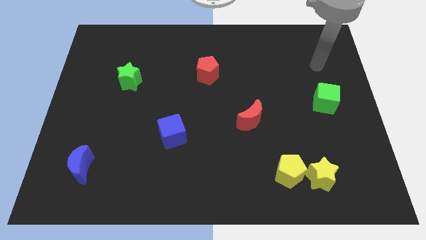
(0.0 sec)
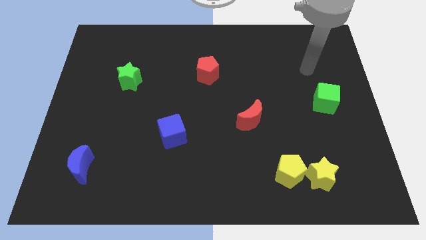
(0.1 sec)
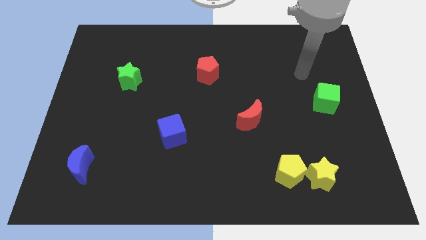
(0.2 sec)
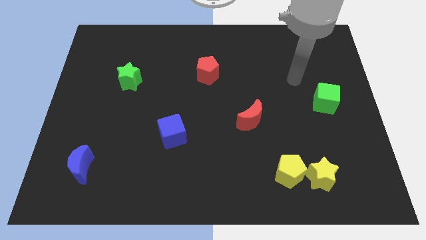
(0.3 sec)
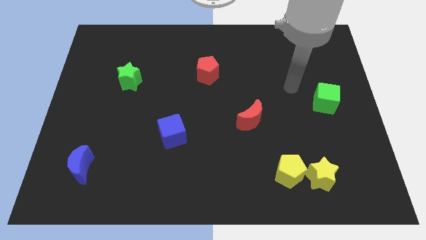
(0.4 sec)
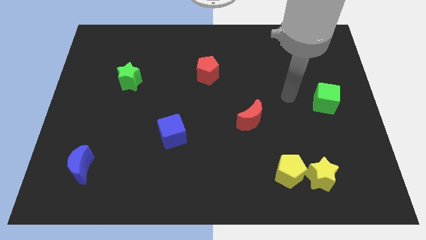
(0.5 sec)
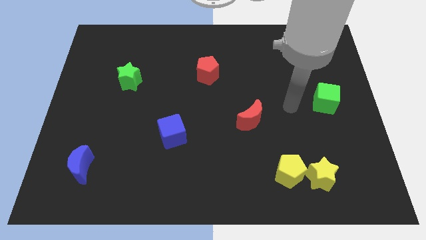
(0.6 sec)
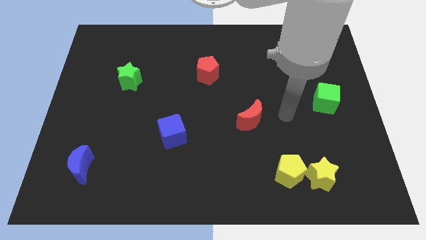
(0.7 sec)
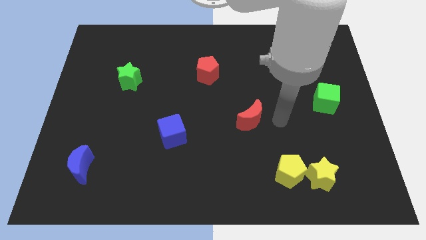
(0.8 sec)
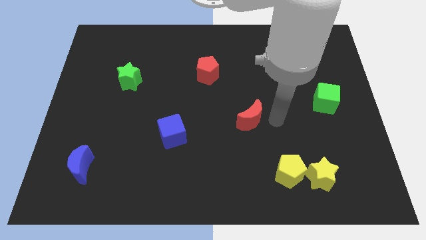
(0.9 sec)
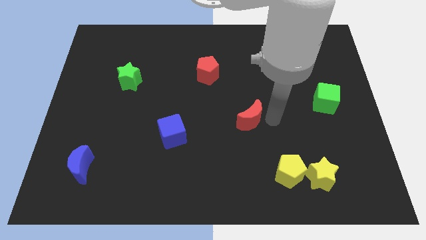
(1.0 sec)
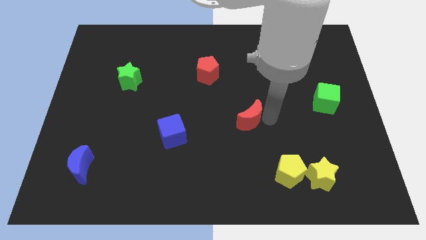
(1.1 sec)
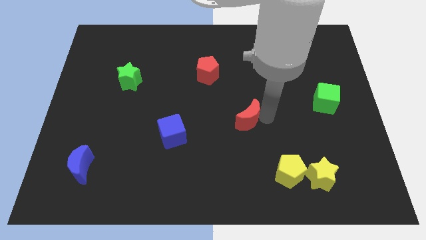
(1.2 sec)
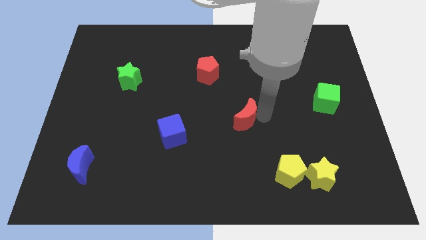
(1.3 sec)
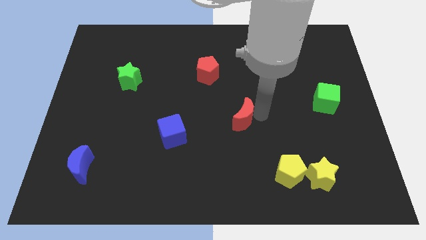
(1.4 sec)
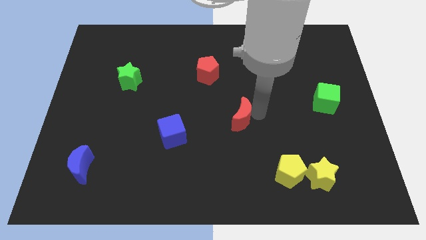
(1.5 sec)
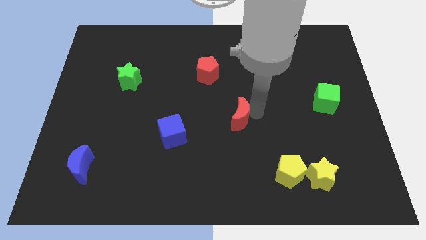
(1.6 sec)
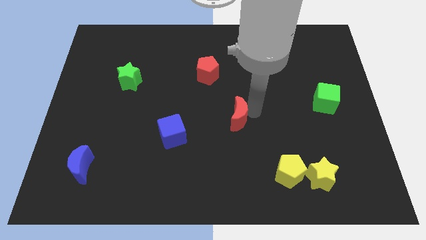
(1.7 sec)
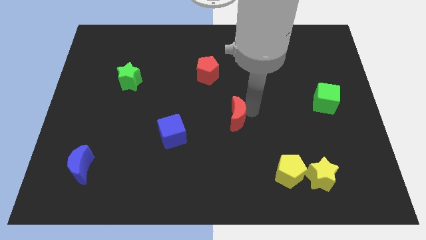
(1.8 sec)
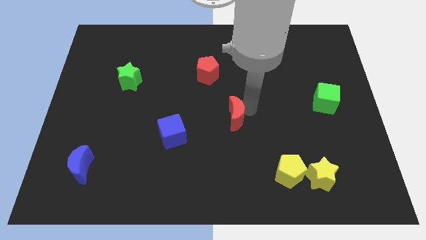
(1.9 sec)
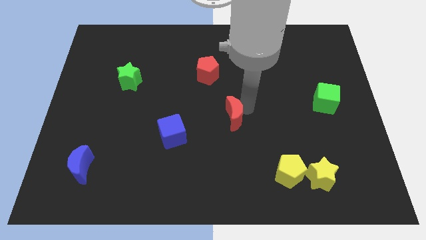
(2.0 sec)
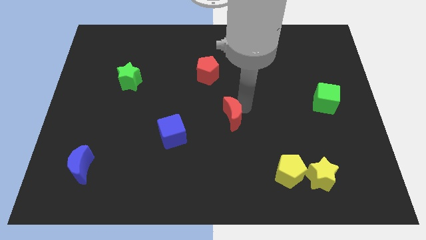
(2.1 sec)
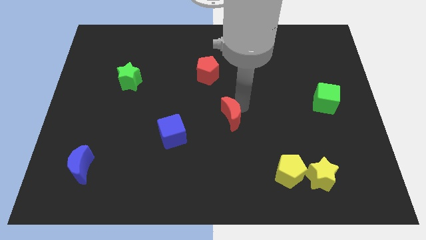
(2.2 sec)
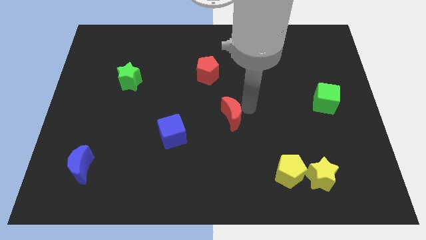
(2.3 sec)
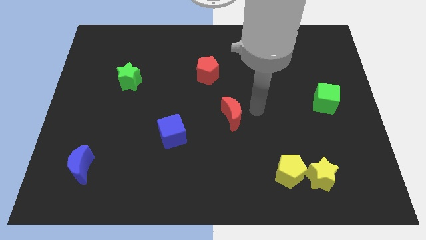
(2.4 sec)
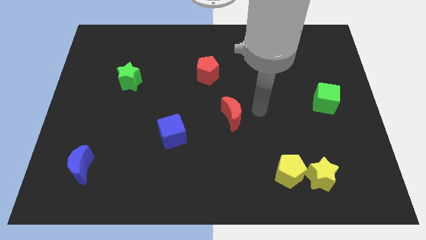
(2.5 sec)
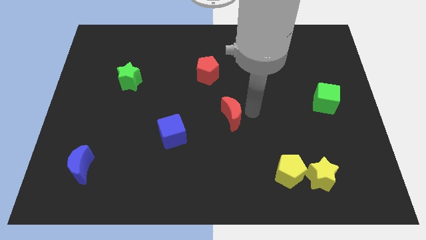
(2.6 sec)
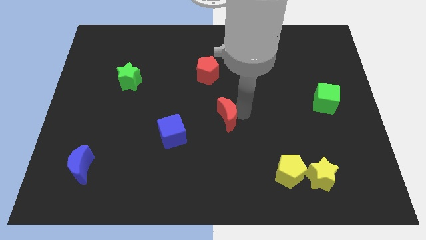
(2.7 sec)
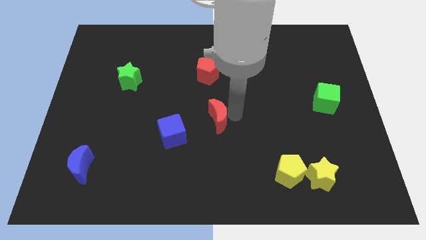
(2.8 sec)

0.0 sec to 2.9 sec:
push the red moon a little left

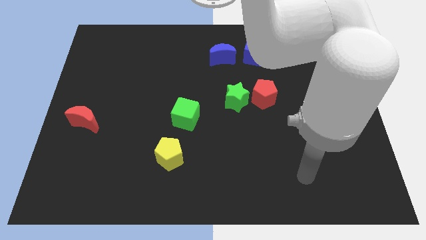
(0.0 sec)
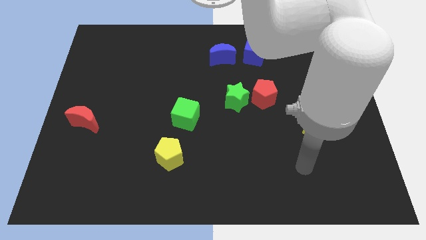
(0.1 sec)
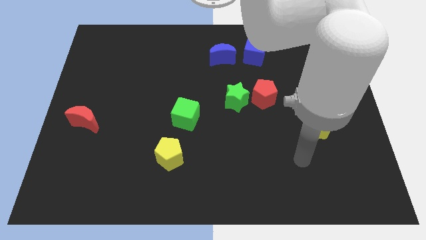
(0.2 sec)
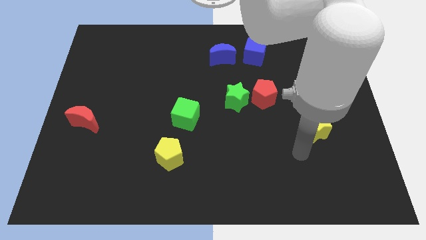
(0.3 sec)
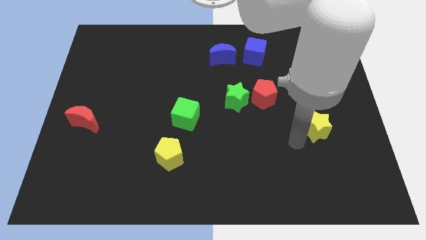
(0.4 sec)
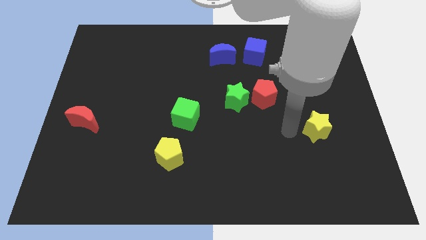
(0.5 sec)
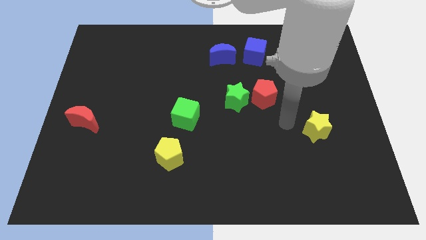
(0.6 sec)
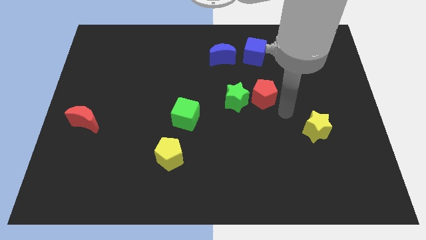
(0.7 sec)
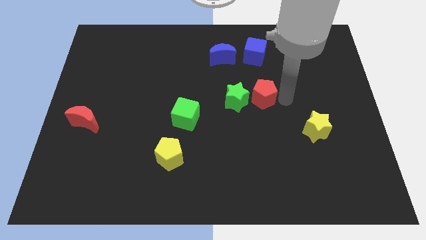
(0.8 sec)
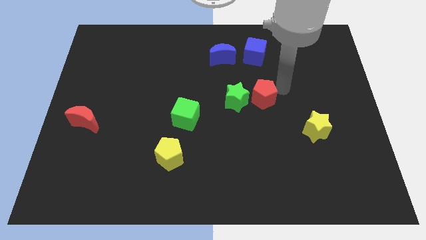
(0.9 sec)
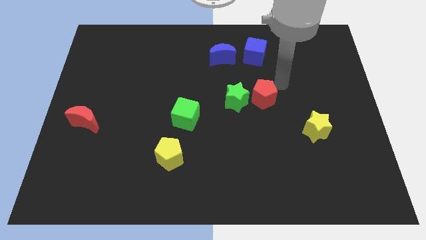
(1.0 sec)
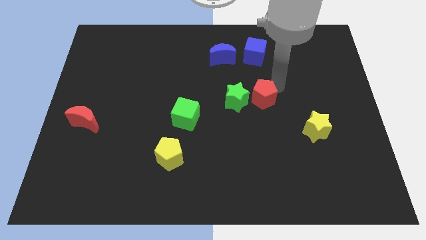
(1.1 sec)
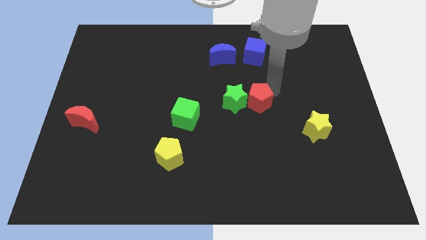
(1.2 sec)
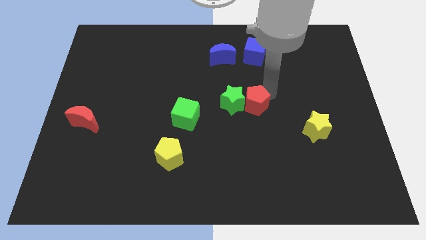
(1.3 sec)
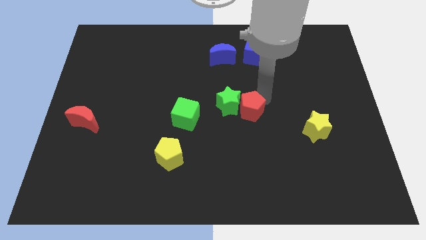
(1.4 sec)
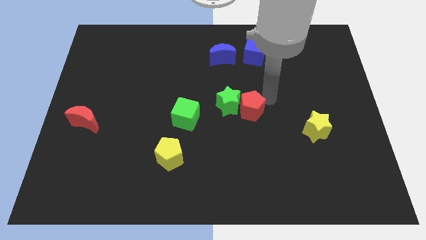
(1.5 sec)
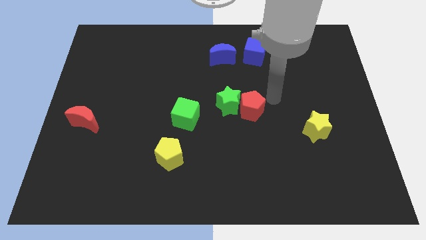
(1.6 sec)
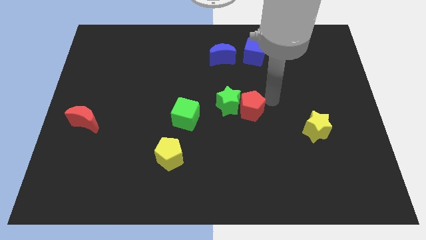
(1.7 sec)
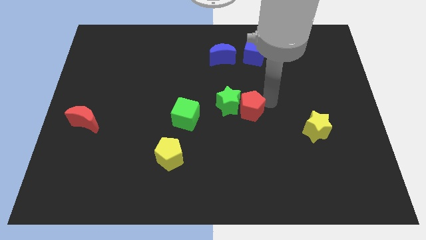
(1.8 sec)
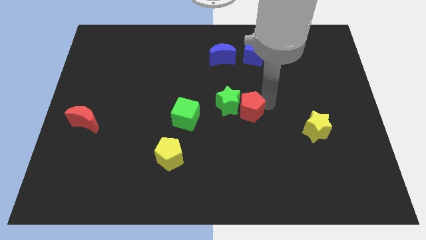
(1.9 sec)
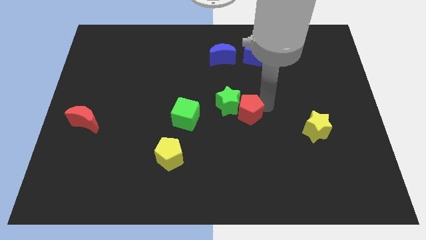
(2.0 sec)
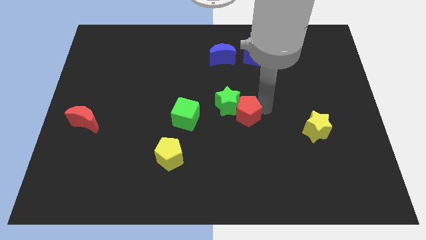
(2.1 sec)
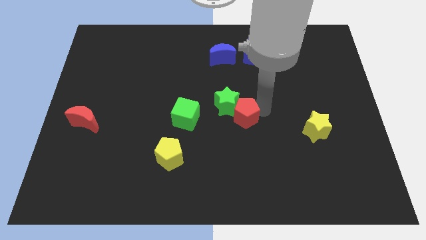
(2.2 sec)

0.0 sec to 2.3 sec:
slide the red pentagon a little downwards and then left

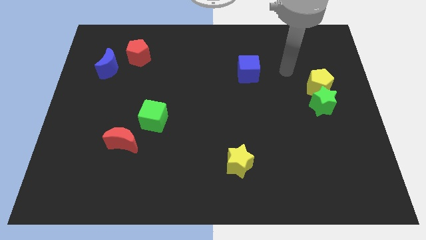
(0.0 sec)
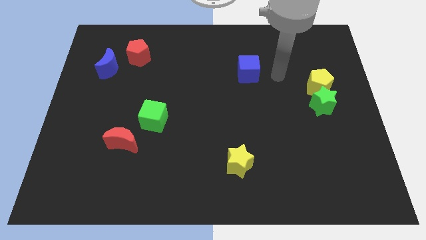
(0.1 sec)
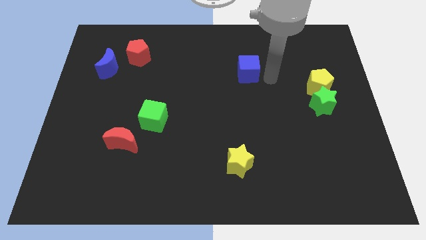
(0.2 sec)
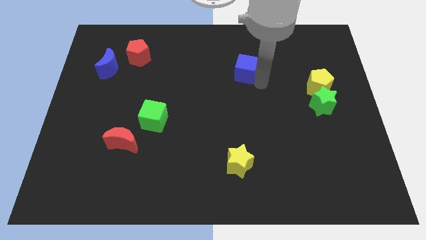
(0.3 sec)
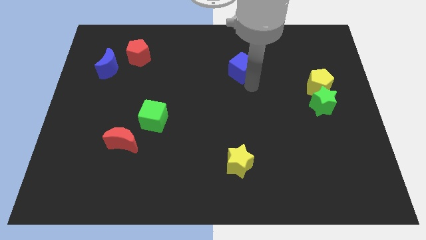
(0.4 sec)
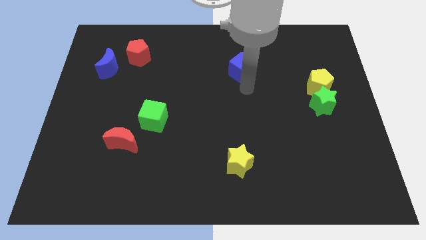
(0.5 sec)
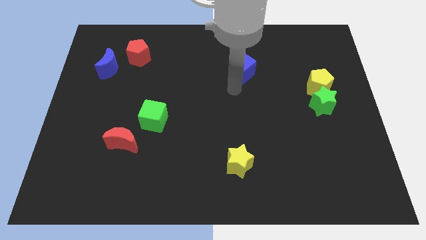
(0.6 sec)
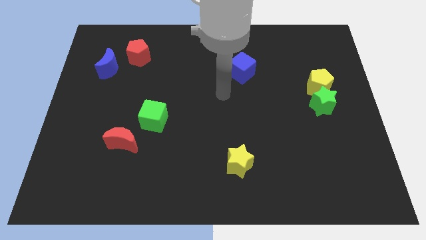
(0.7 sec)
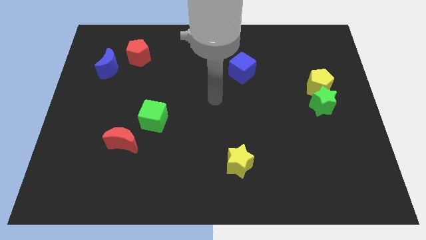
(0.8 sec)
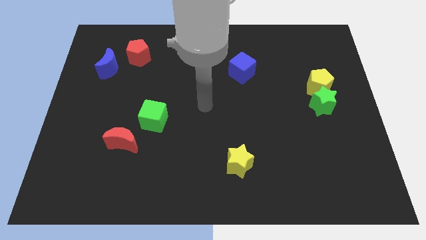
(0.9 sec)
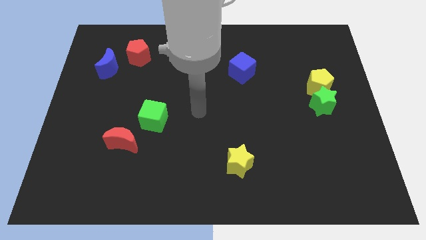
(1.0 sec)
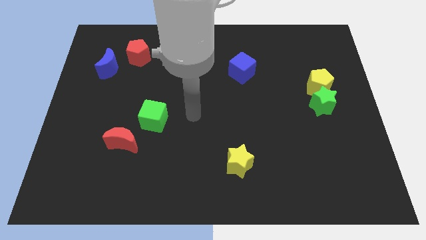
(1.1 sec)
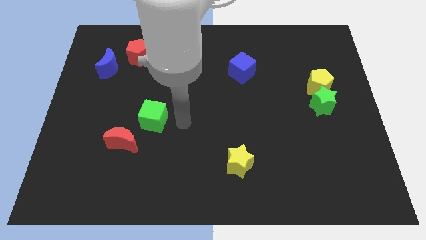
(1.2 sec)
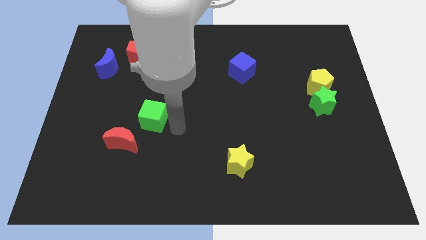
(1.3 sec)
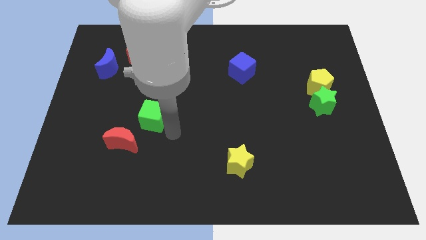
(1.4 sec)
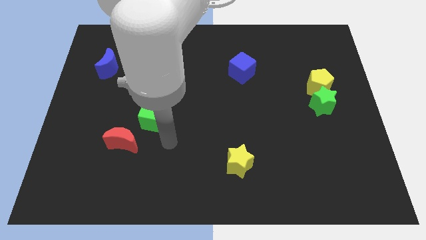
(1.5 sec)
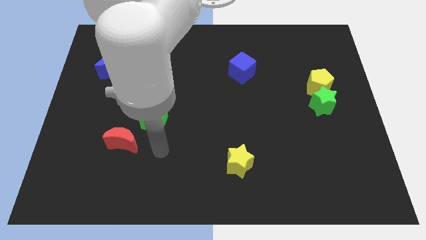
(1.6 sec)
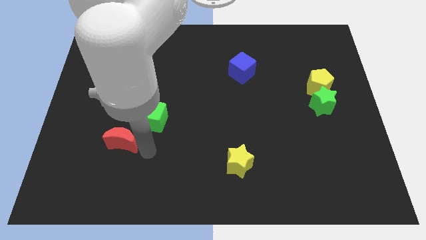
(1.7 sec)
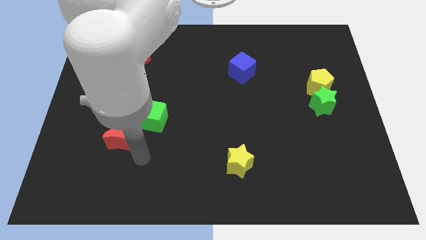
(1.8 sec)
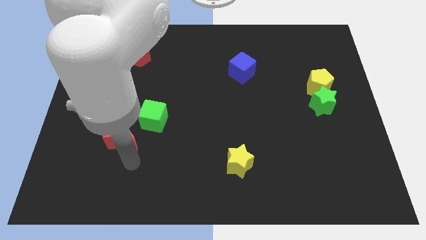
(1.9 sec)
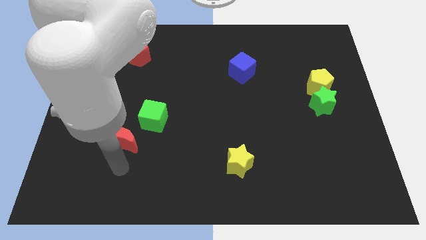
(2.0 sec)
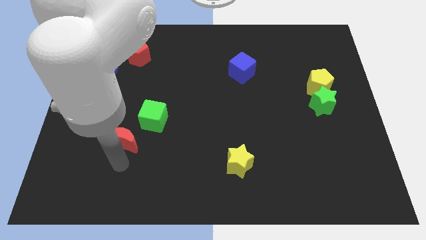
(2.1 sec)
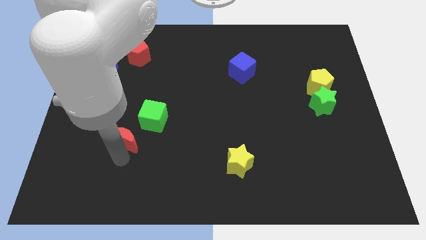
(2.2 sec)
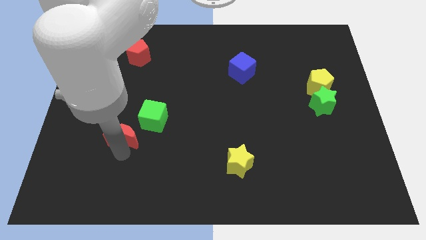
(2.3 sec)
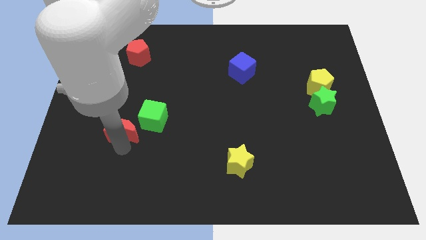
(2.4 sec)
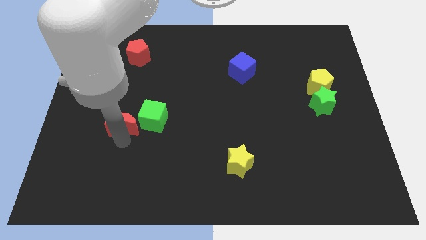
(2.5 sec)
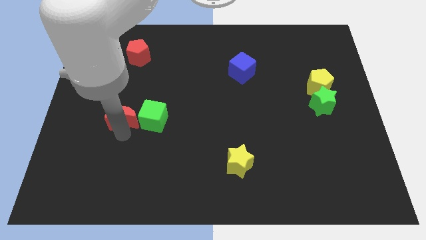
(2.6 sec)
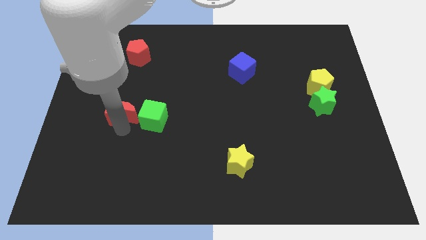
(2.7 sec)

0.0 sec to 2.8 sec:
slide the red moon a little upwards
